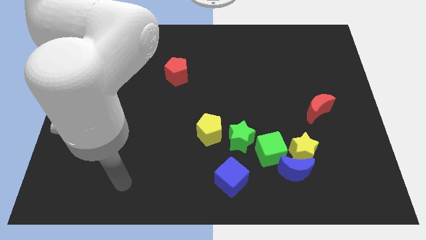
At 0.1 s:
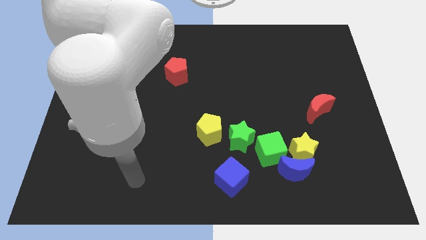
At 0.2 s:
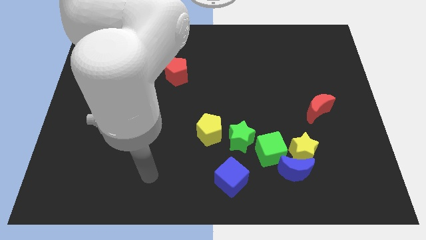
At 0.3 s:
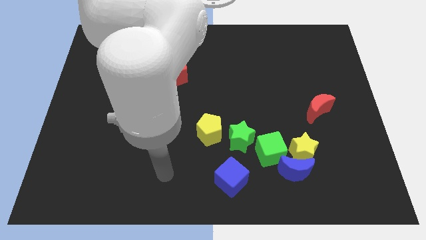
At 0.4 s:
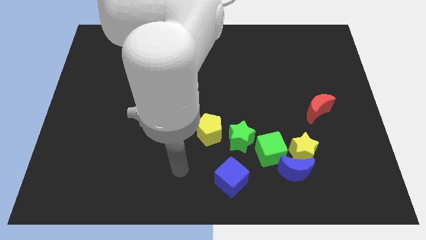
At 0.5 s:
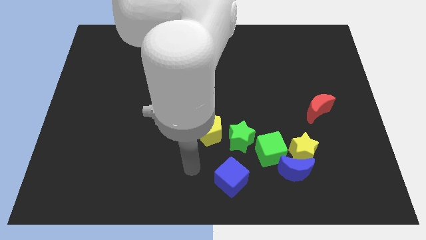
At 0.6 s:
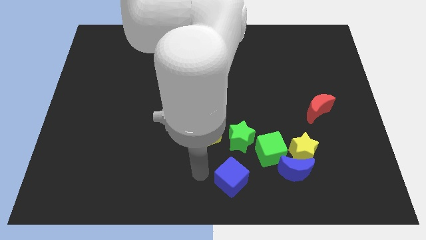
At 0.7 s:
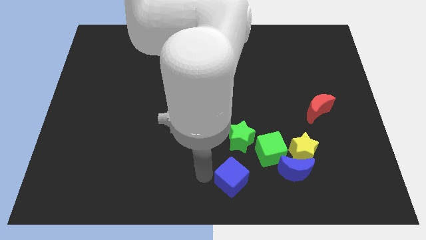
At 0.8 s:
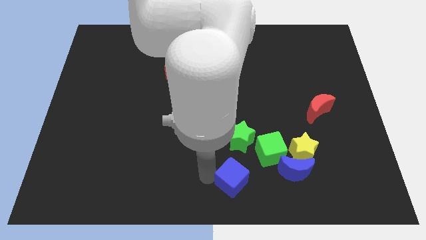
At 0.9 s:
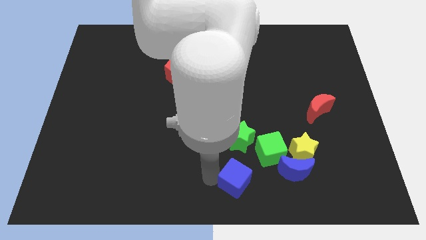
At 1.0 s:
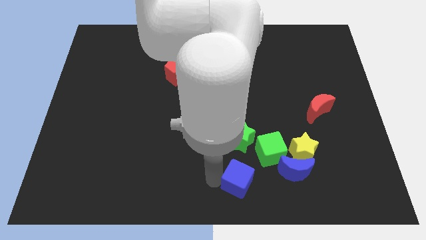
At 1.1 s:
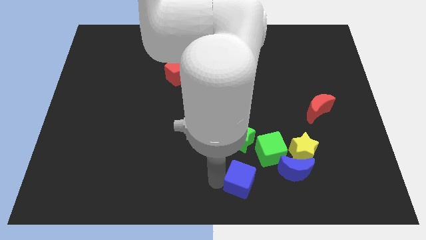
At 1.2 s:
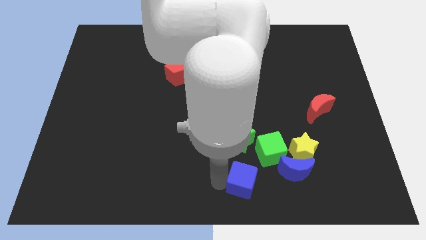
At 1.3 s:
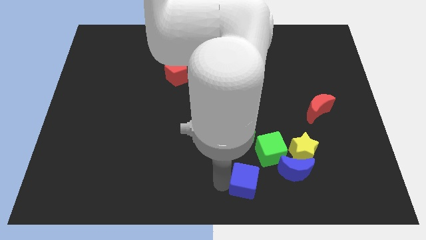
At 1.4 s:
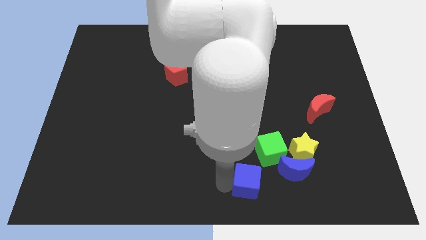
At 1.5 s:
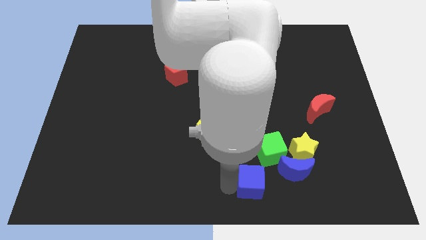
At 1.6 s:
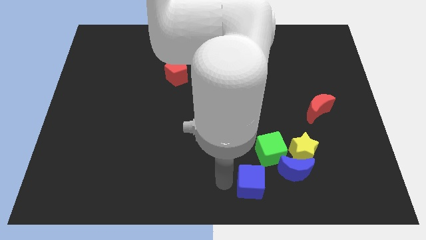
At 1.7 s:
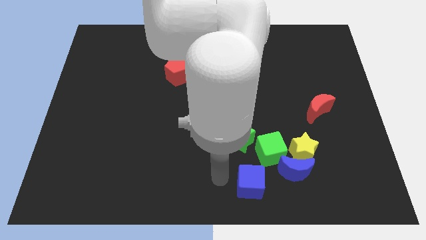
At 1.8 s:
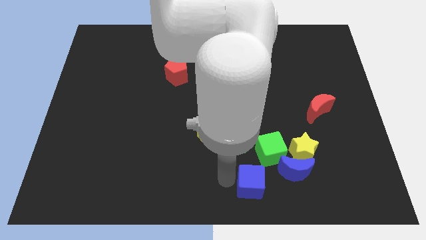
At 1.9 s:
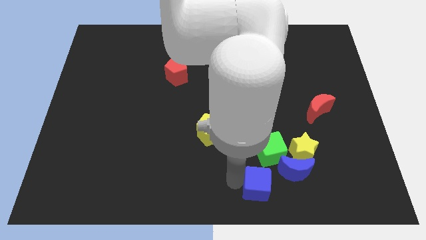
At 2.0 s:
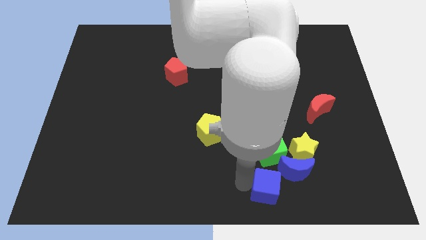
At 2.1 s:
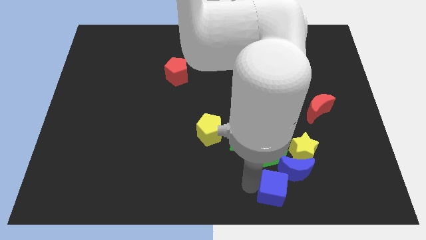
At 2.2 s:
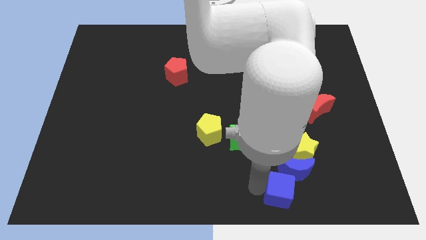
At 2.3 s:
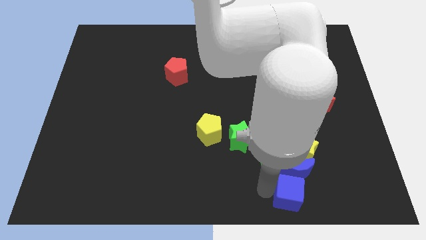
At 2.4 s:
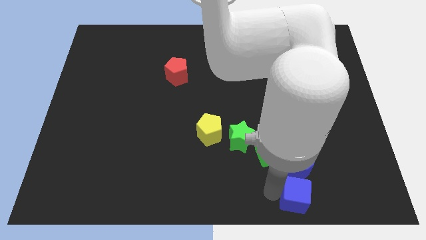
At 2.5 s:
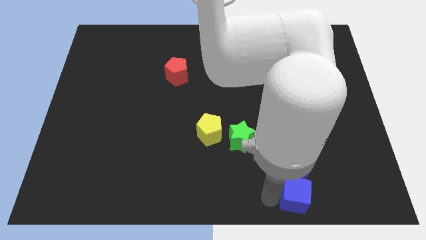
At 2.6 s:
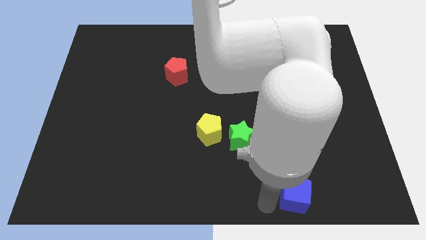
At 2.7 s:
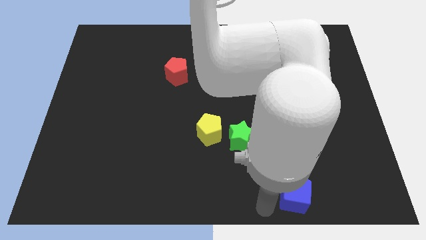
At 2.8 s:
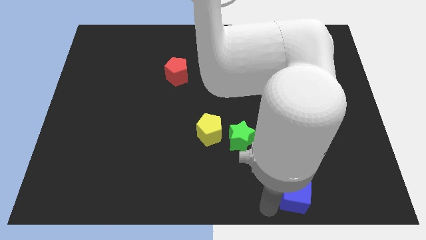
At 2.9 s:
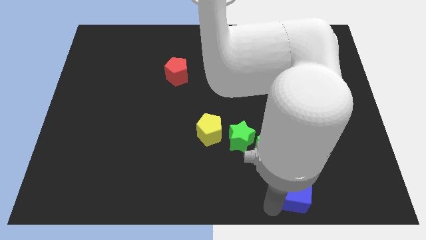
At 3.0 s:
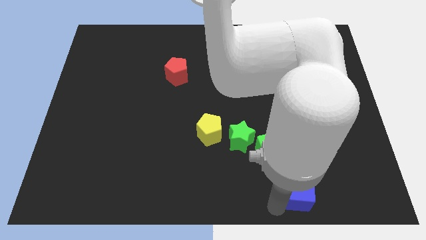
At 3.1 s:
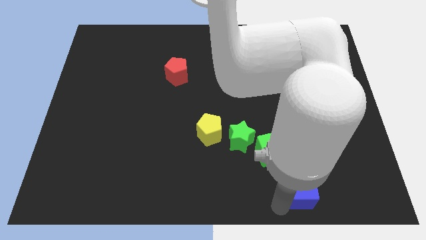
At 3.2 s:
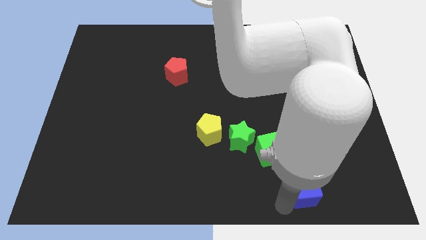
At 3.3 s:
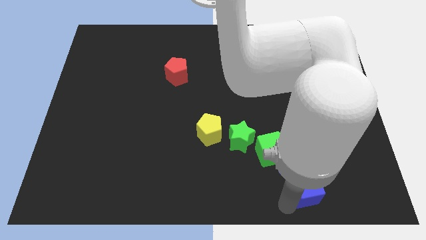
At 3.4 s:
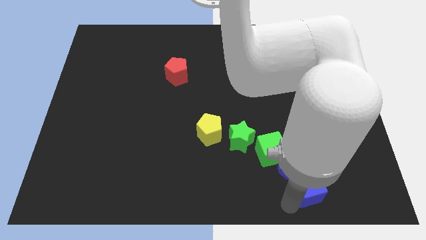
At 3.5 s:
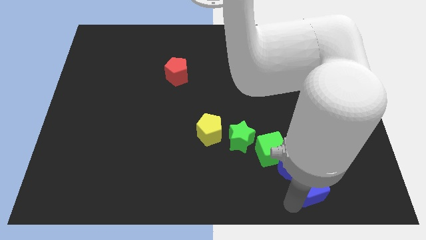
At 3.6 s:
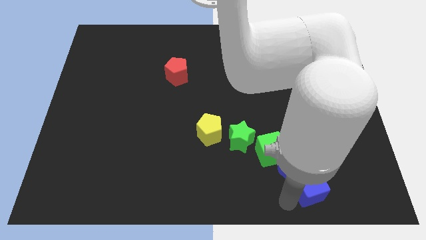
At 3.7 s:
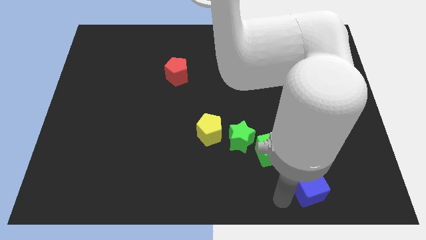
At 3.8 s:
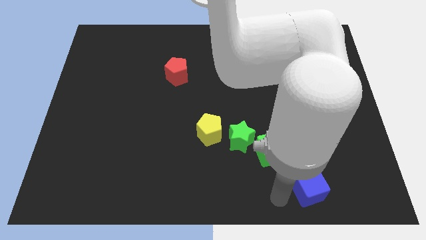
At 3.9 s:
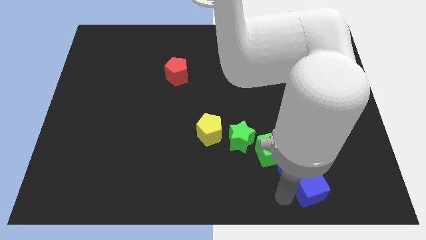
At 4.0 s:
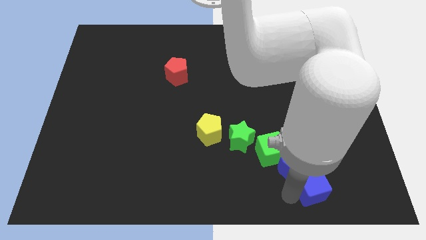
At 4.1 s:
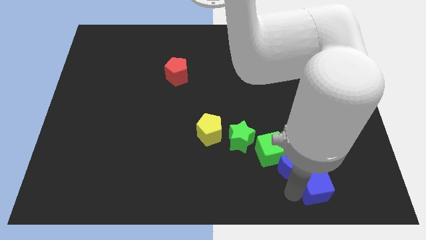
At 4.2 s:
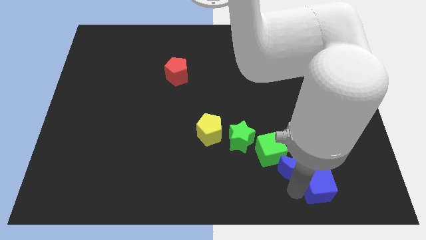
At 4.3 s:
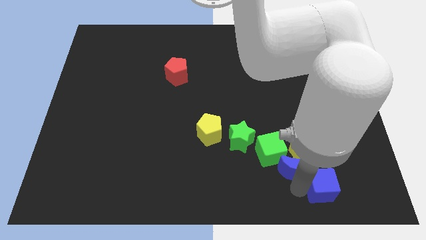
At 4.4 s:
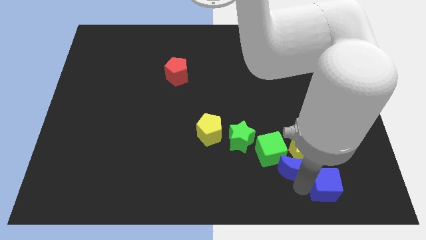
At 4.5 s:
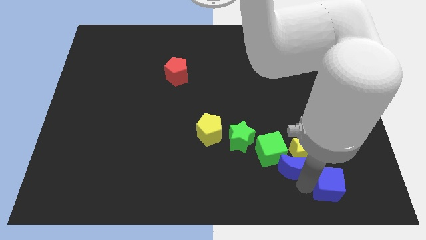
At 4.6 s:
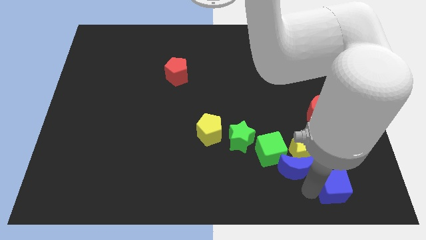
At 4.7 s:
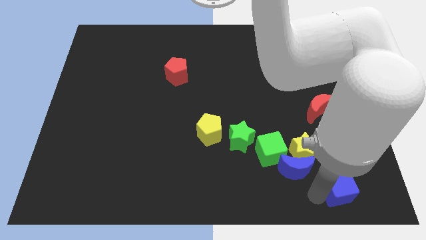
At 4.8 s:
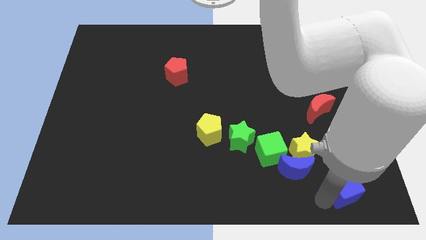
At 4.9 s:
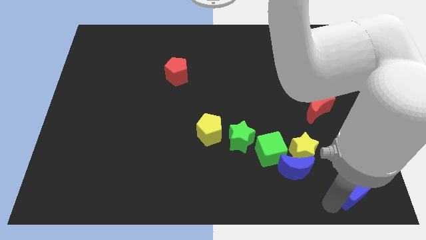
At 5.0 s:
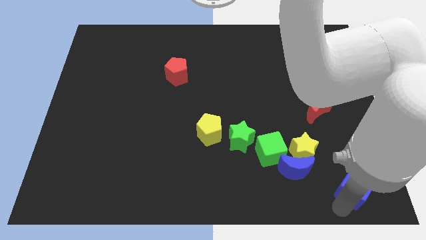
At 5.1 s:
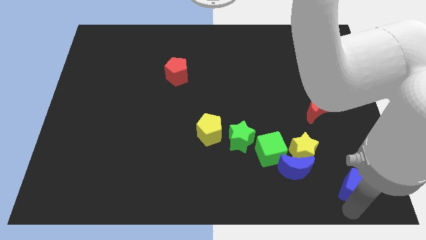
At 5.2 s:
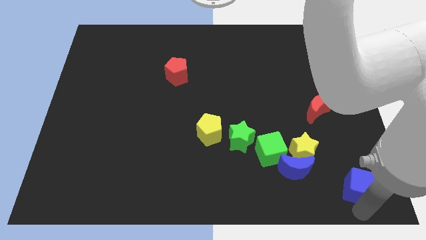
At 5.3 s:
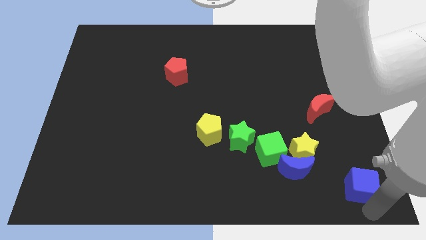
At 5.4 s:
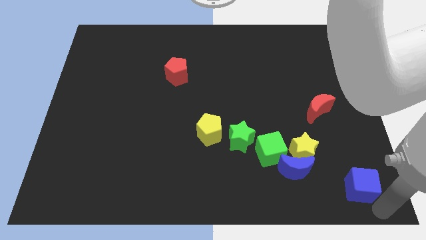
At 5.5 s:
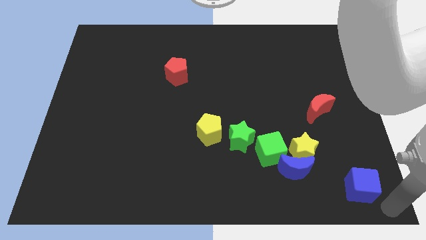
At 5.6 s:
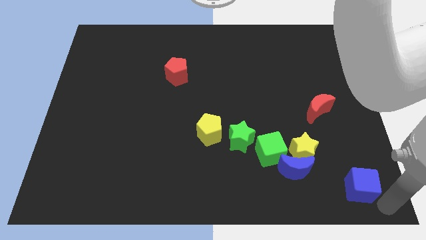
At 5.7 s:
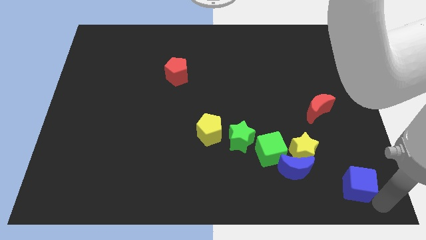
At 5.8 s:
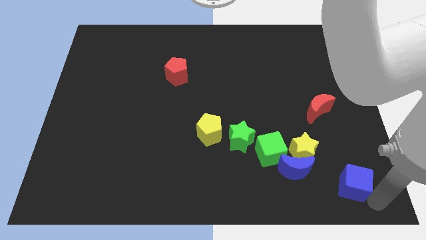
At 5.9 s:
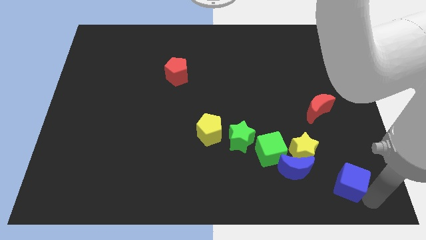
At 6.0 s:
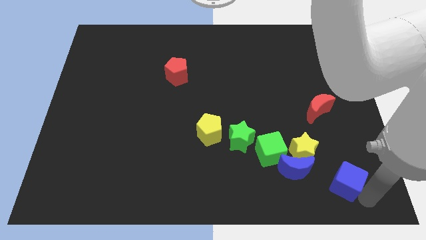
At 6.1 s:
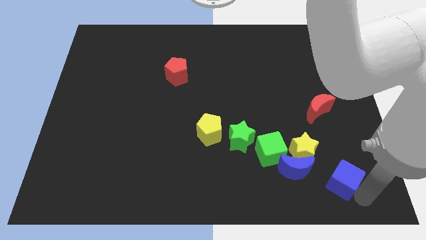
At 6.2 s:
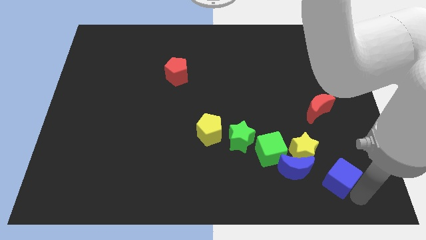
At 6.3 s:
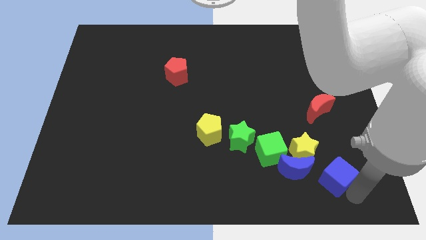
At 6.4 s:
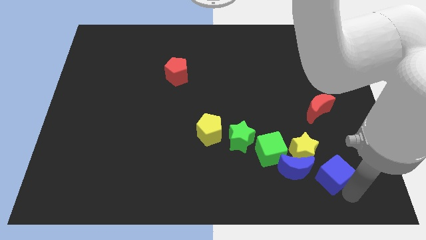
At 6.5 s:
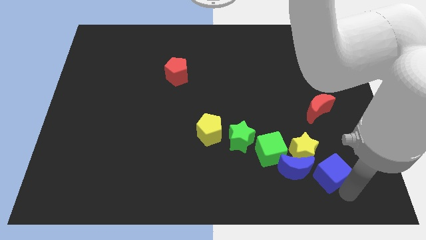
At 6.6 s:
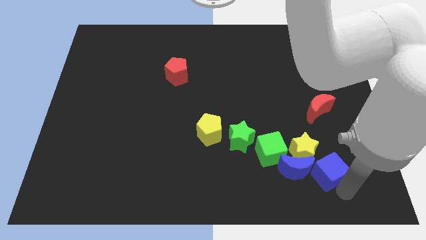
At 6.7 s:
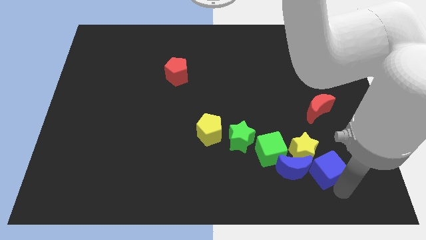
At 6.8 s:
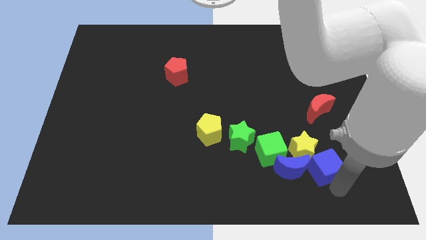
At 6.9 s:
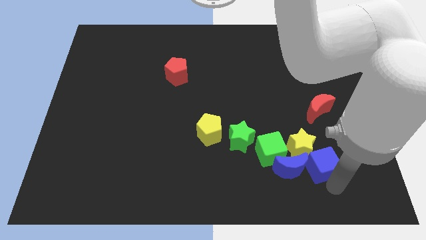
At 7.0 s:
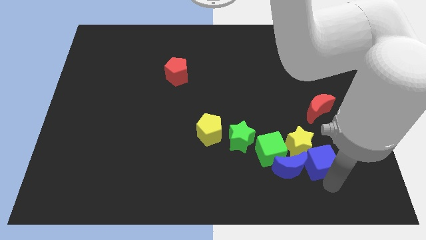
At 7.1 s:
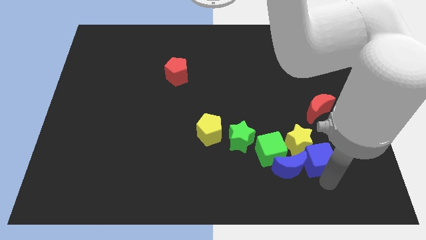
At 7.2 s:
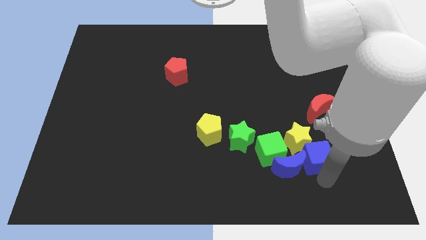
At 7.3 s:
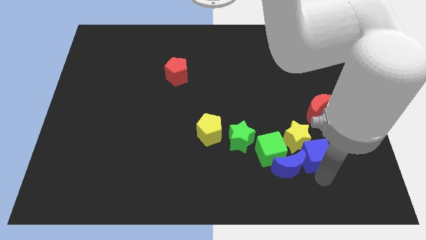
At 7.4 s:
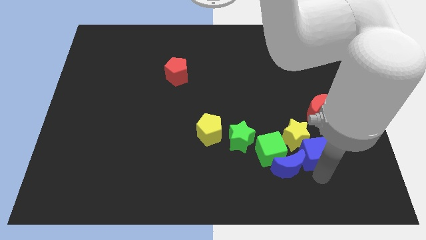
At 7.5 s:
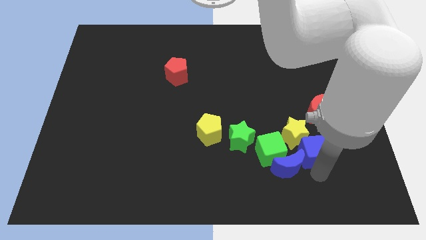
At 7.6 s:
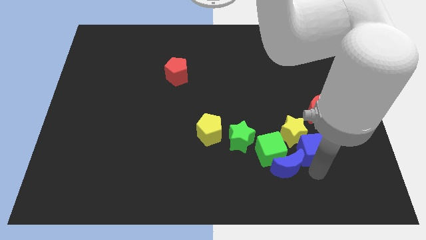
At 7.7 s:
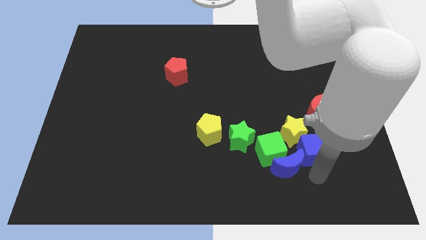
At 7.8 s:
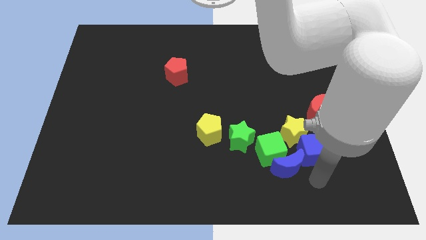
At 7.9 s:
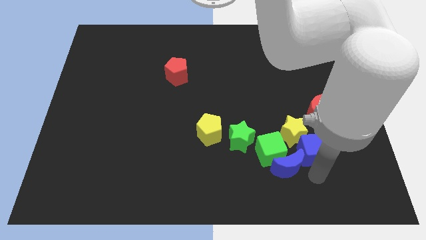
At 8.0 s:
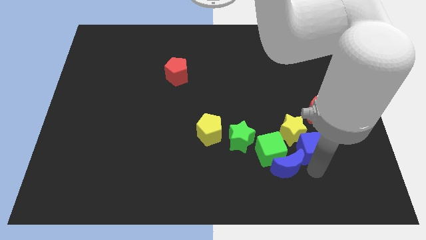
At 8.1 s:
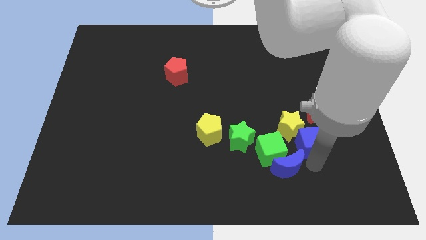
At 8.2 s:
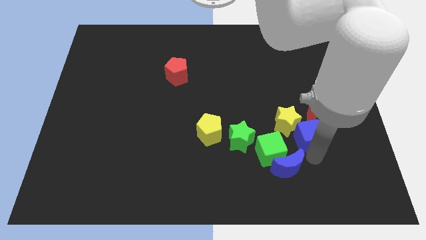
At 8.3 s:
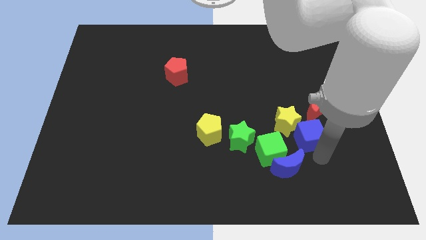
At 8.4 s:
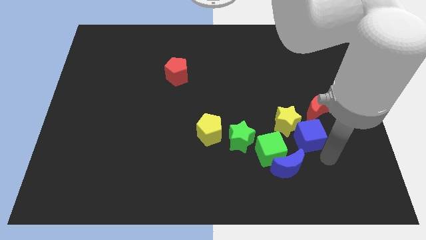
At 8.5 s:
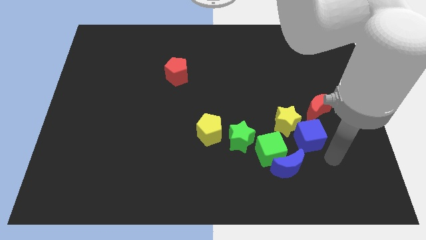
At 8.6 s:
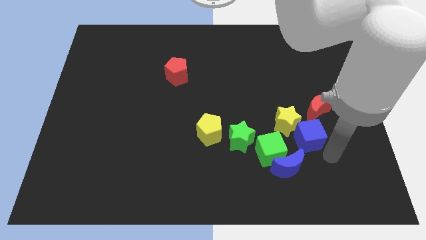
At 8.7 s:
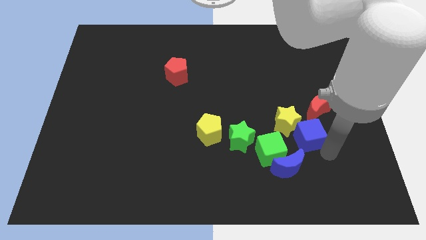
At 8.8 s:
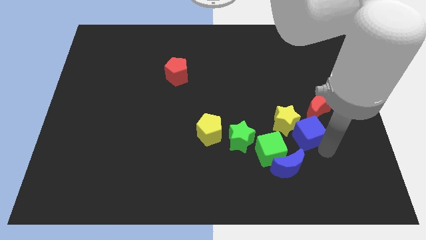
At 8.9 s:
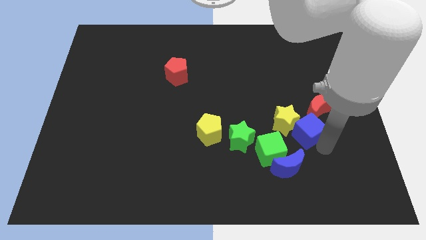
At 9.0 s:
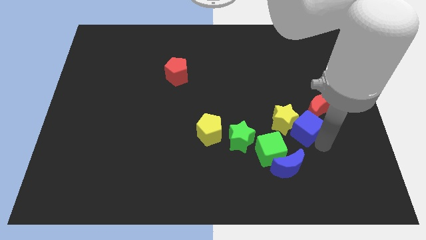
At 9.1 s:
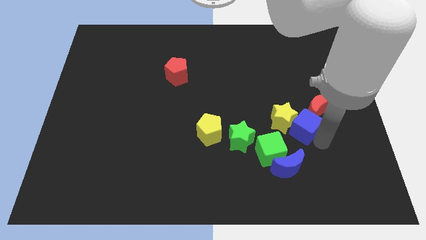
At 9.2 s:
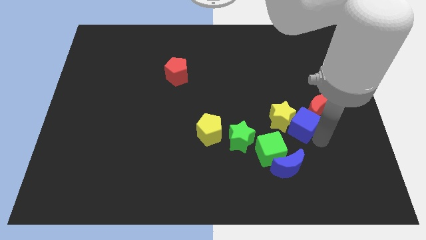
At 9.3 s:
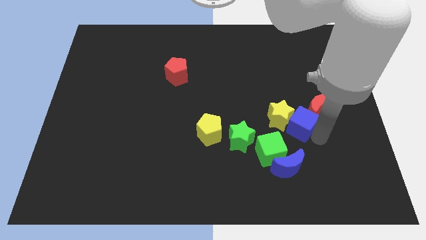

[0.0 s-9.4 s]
move the blue cube to the left side of the red moon
